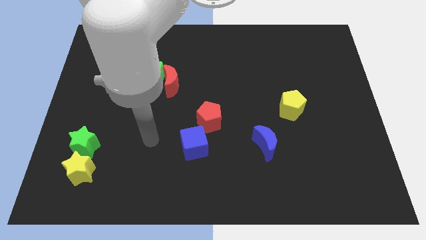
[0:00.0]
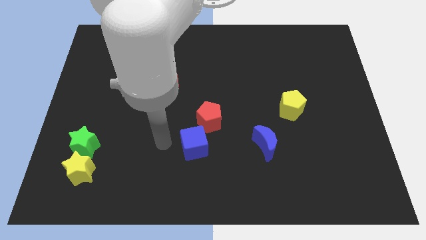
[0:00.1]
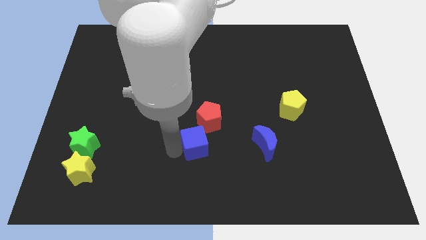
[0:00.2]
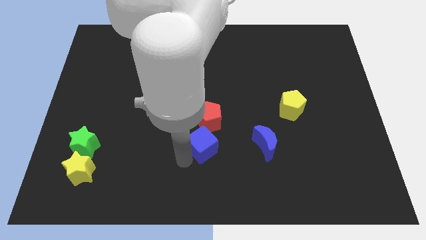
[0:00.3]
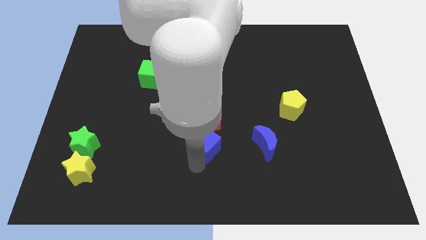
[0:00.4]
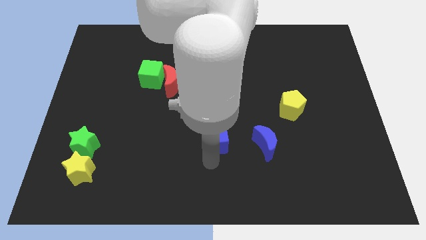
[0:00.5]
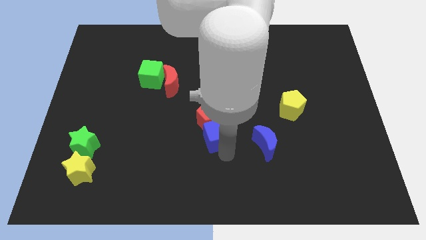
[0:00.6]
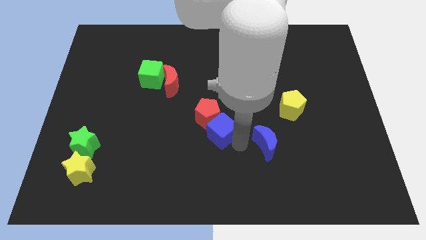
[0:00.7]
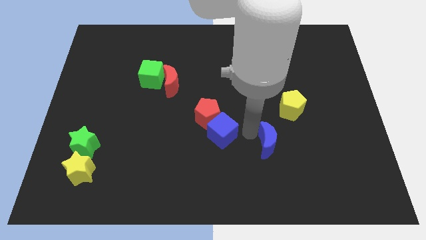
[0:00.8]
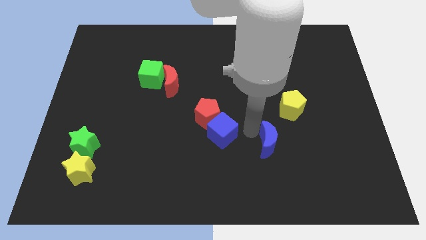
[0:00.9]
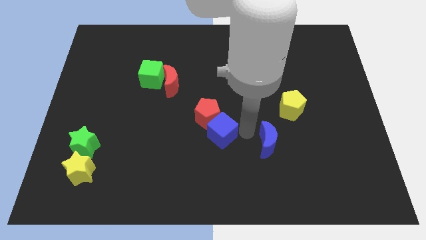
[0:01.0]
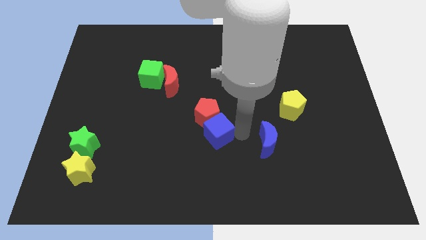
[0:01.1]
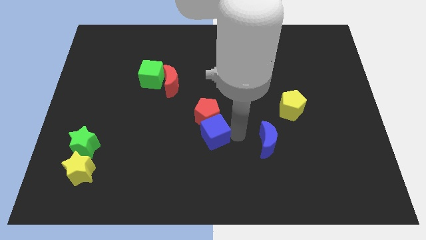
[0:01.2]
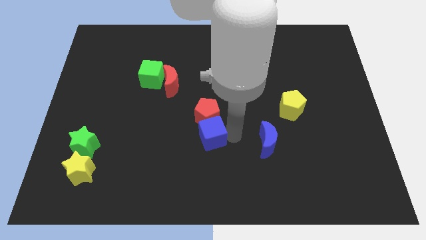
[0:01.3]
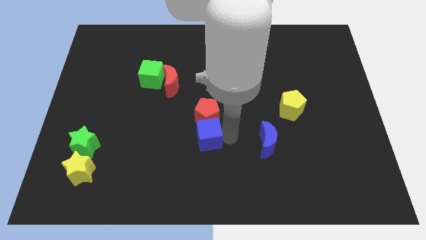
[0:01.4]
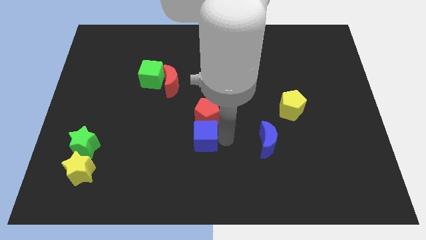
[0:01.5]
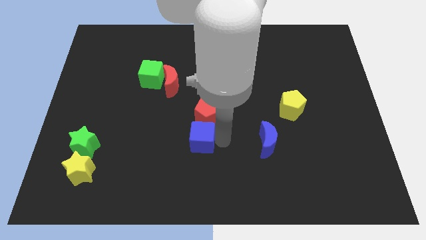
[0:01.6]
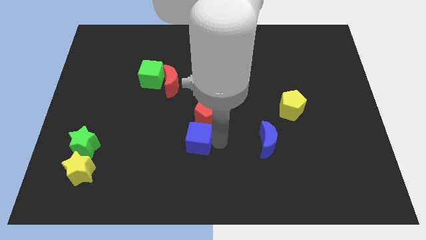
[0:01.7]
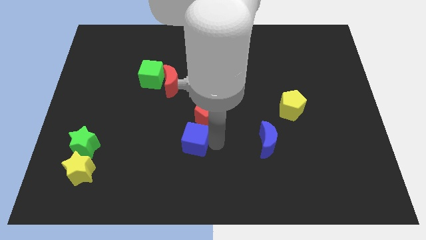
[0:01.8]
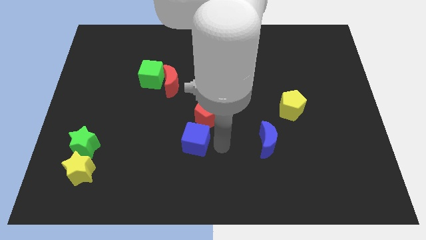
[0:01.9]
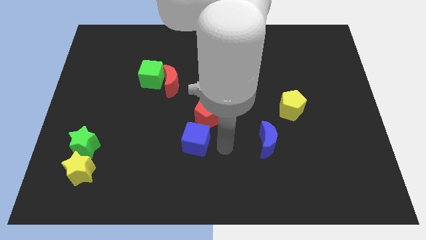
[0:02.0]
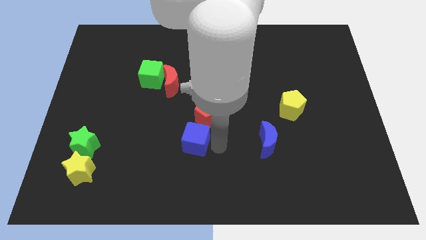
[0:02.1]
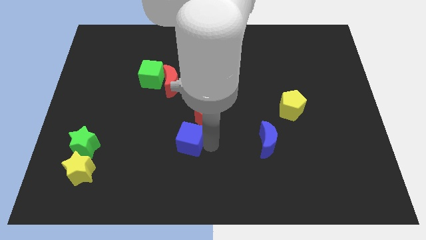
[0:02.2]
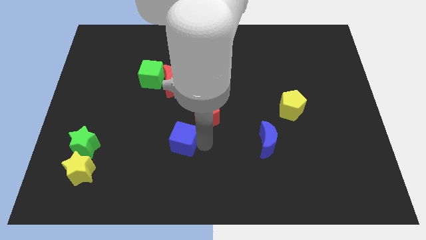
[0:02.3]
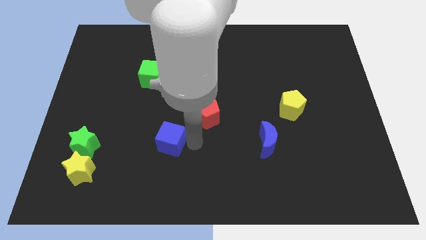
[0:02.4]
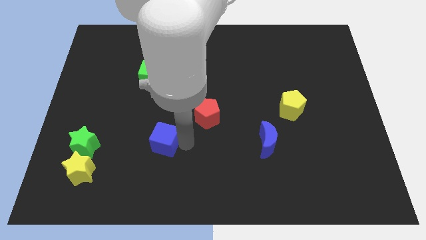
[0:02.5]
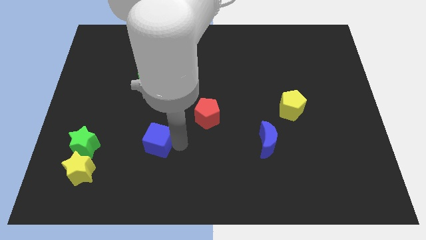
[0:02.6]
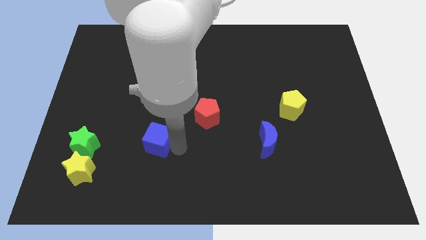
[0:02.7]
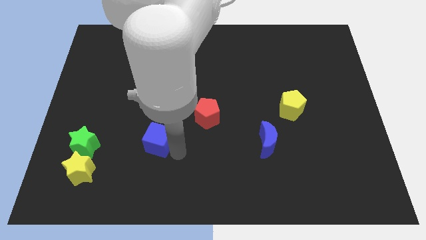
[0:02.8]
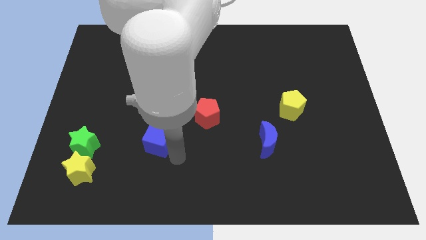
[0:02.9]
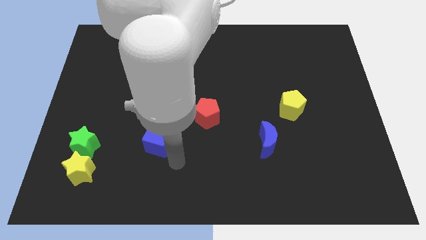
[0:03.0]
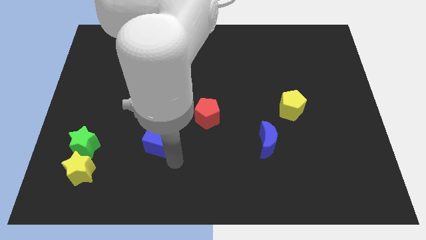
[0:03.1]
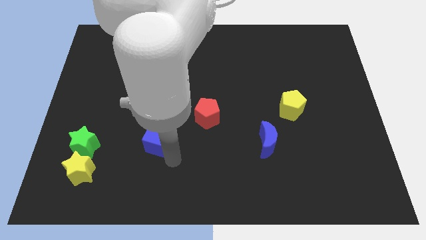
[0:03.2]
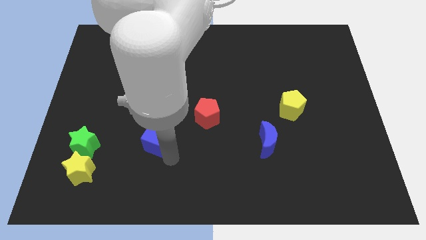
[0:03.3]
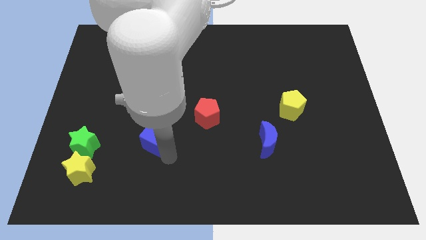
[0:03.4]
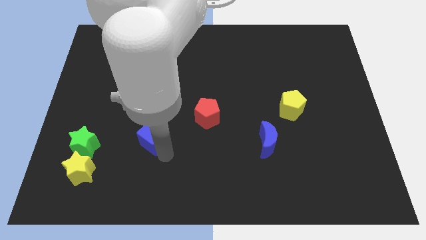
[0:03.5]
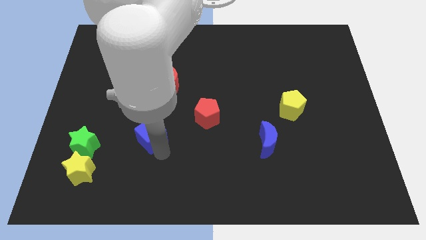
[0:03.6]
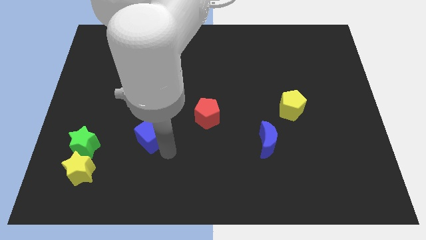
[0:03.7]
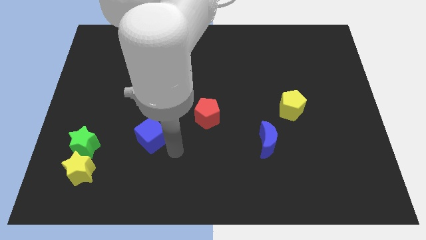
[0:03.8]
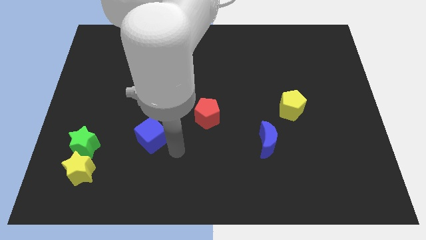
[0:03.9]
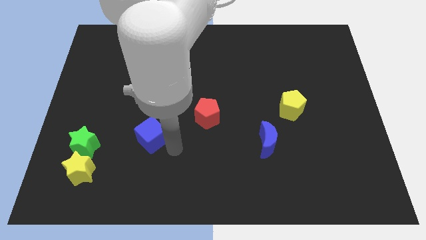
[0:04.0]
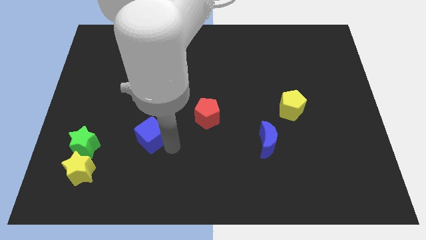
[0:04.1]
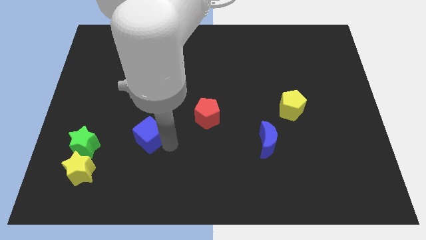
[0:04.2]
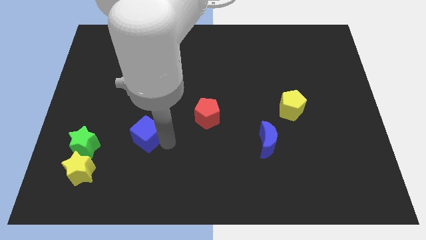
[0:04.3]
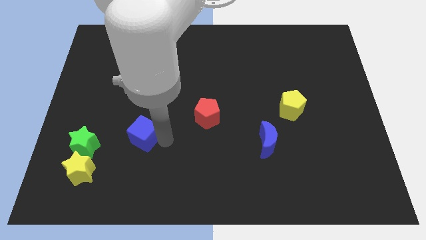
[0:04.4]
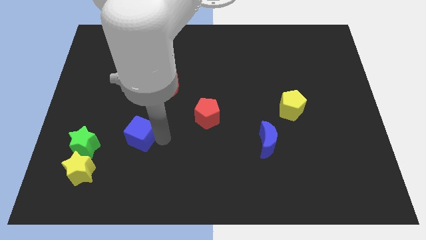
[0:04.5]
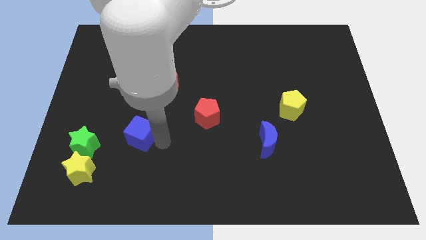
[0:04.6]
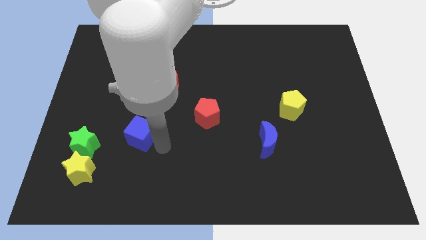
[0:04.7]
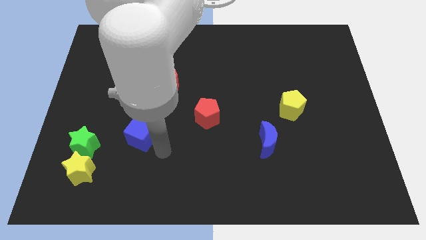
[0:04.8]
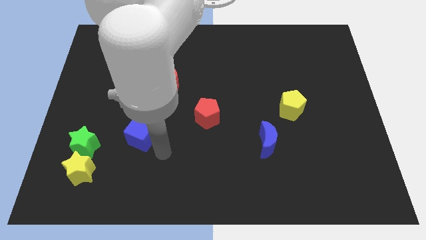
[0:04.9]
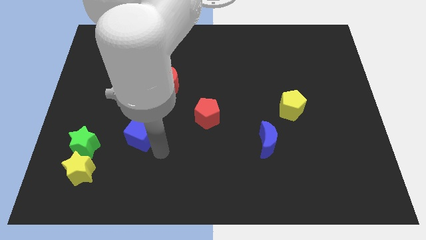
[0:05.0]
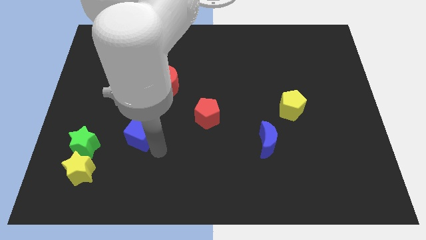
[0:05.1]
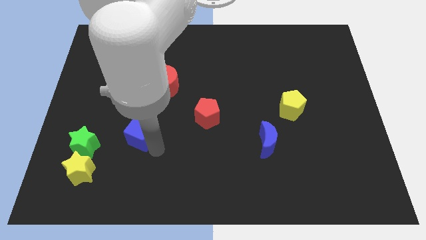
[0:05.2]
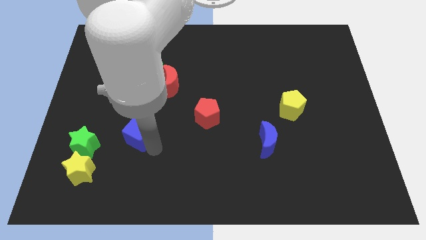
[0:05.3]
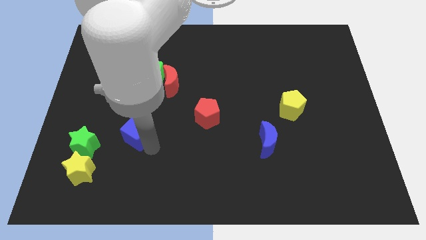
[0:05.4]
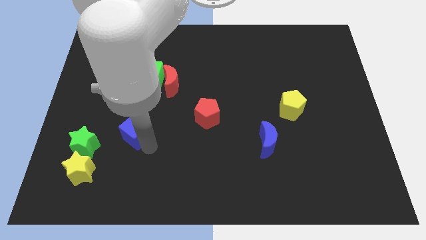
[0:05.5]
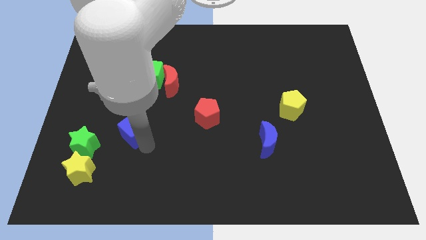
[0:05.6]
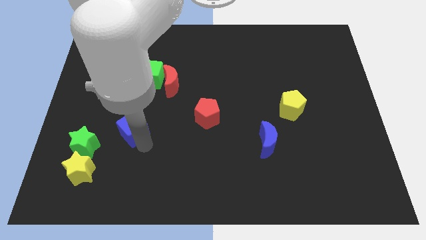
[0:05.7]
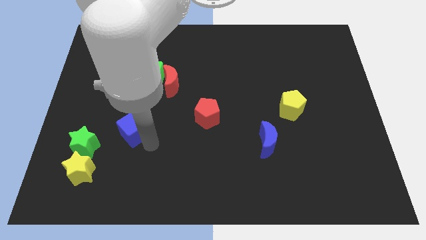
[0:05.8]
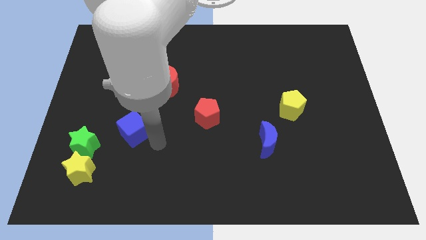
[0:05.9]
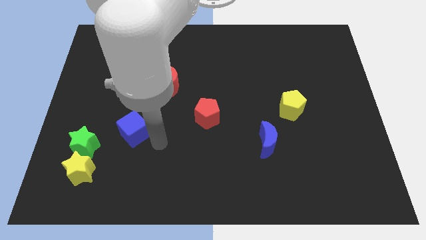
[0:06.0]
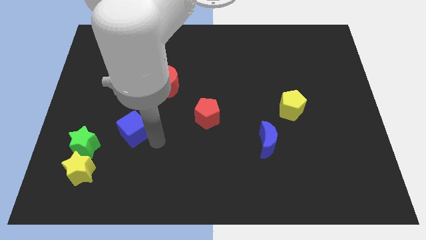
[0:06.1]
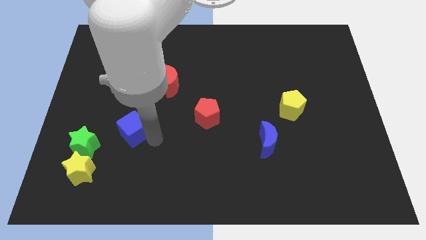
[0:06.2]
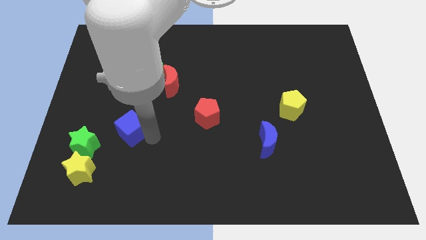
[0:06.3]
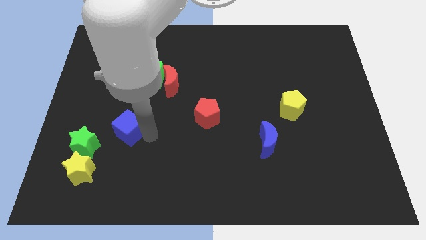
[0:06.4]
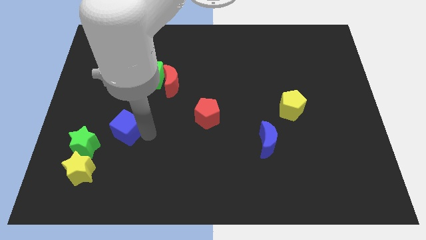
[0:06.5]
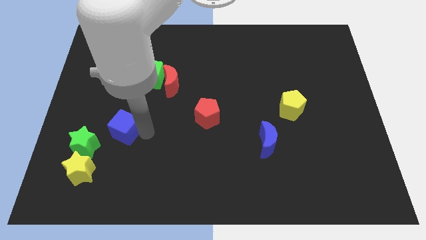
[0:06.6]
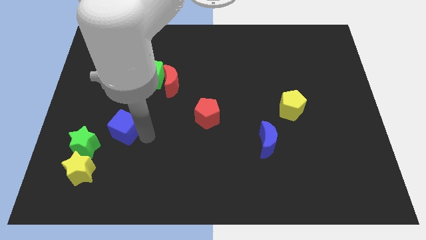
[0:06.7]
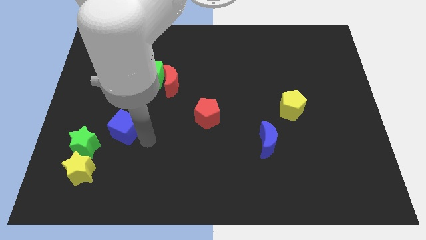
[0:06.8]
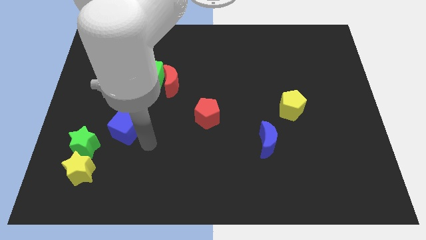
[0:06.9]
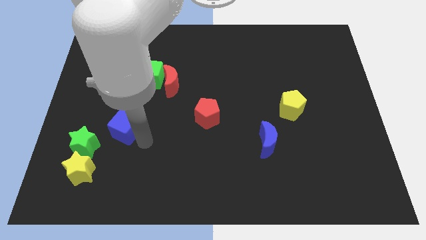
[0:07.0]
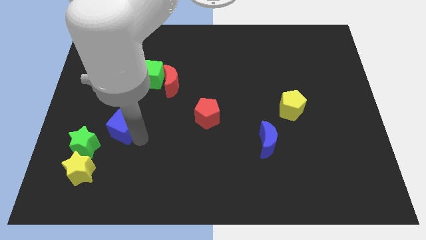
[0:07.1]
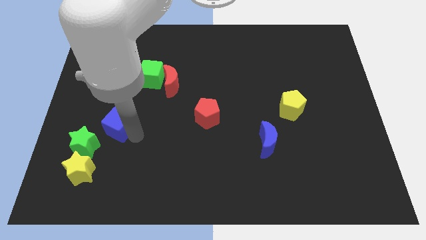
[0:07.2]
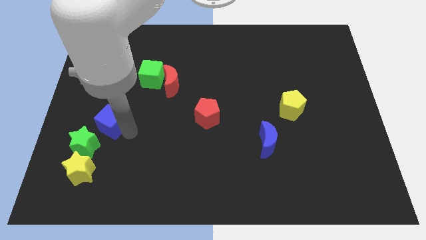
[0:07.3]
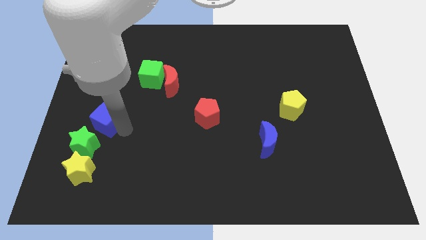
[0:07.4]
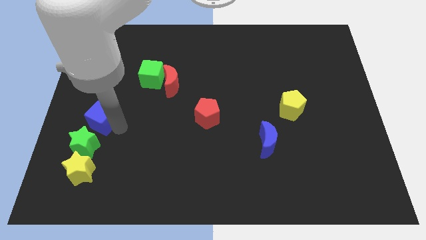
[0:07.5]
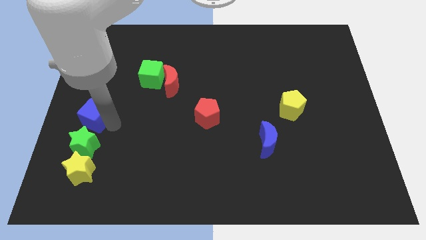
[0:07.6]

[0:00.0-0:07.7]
move the blue cube to the center left
